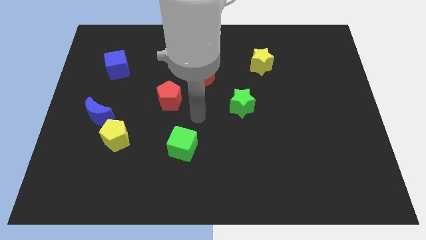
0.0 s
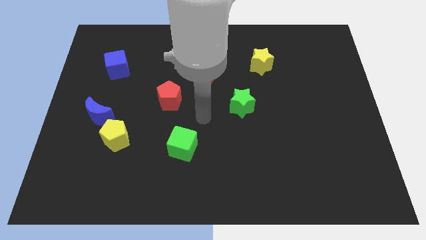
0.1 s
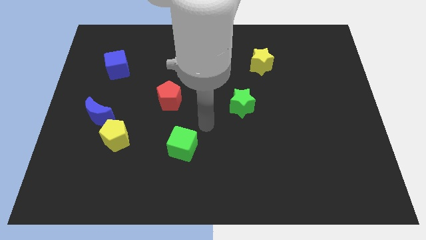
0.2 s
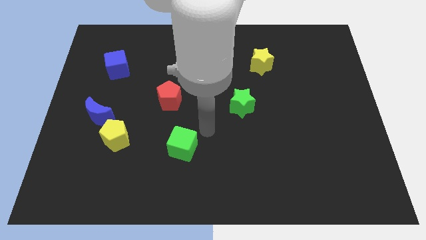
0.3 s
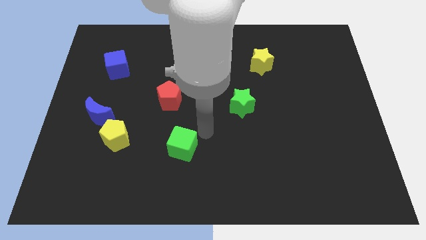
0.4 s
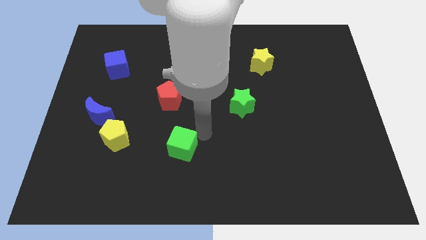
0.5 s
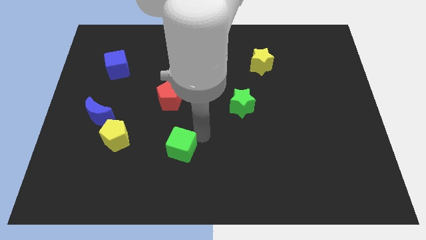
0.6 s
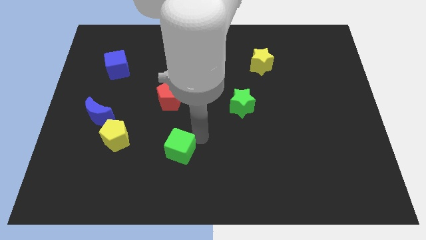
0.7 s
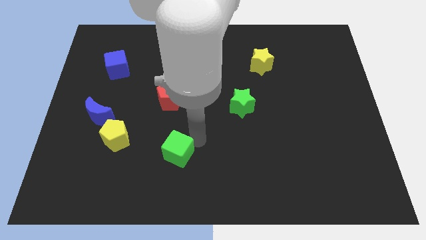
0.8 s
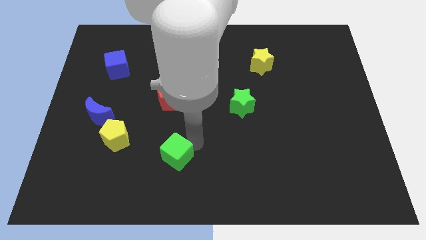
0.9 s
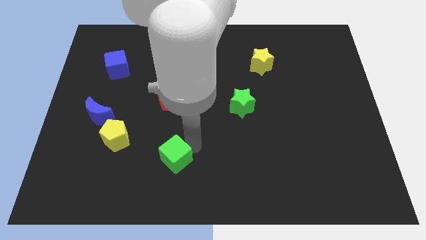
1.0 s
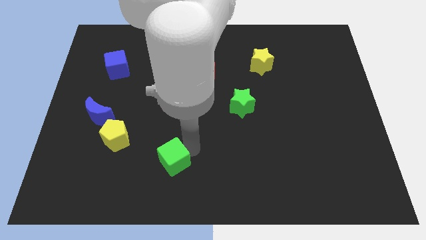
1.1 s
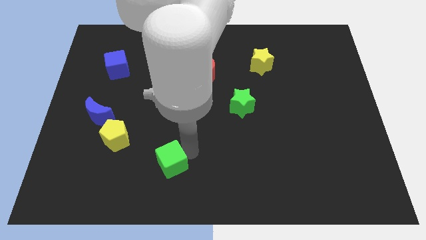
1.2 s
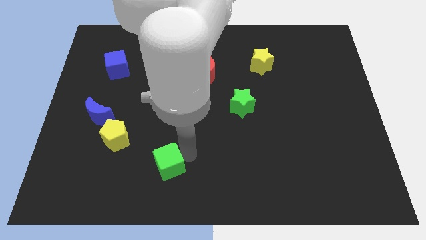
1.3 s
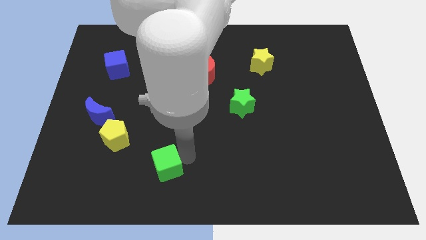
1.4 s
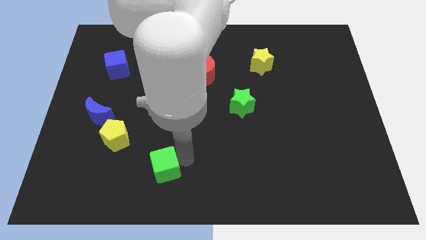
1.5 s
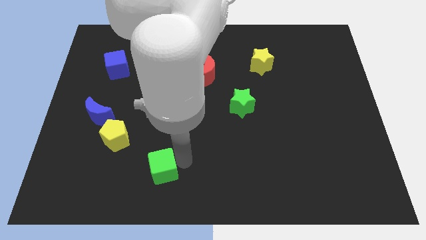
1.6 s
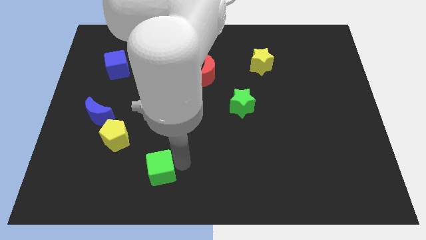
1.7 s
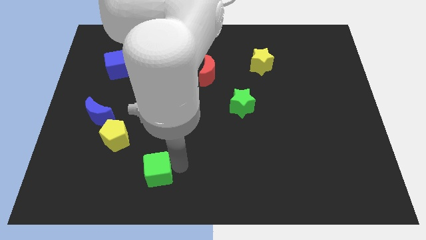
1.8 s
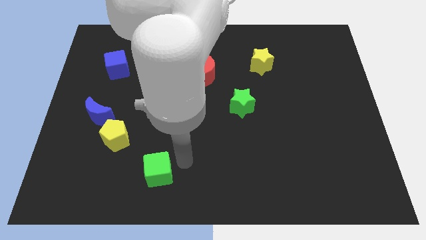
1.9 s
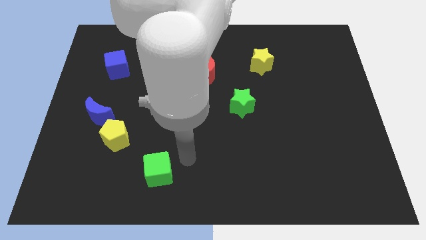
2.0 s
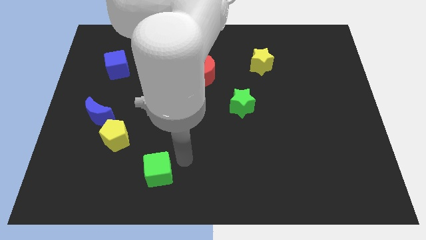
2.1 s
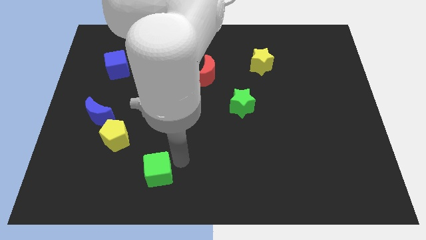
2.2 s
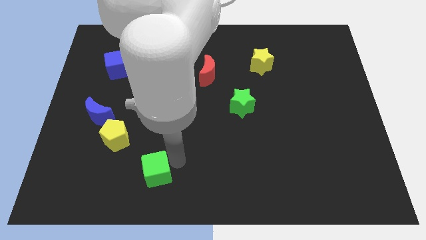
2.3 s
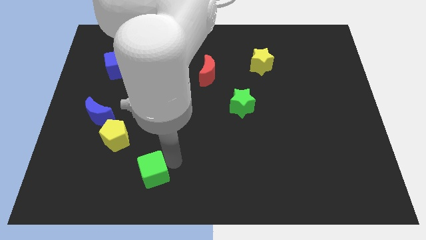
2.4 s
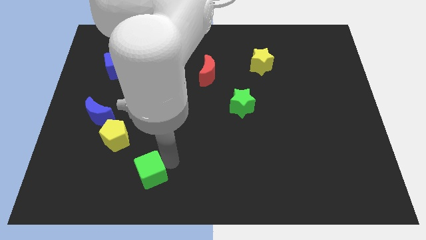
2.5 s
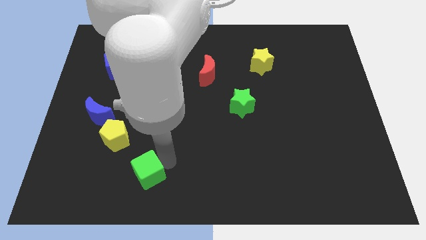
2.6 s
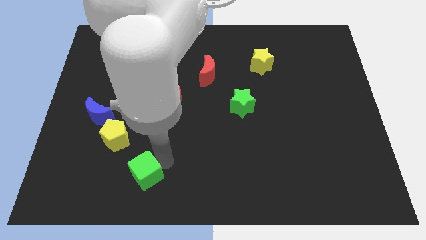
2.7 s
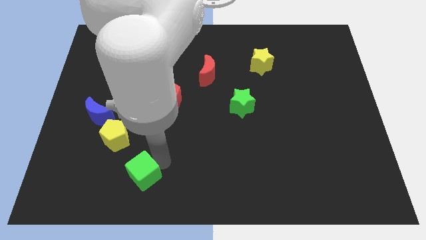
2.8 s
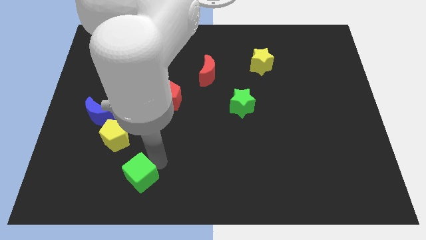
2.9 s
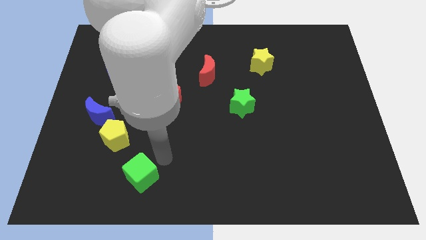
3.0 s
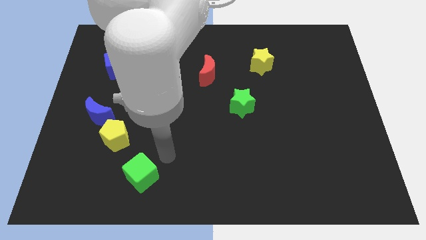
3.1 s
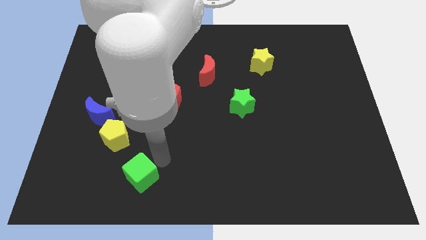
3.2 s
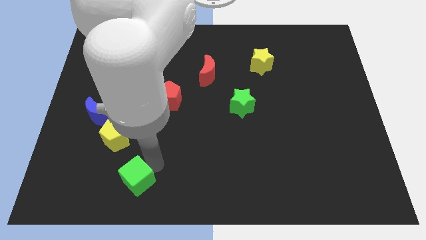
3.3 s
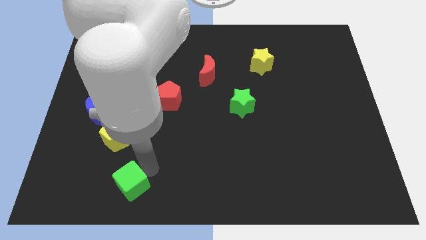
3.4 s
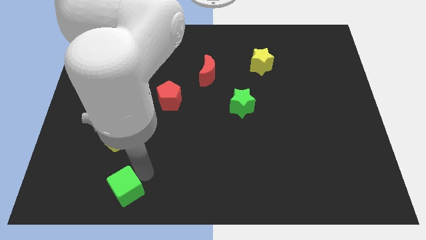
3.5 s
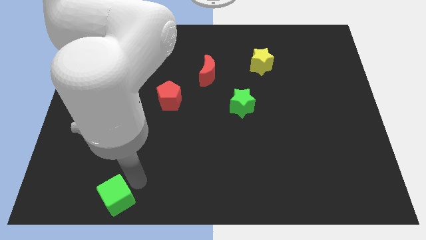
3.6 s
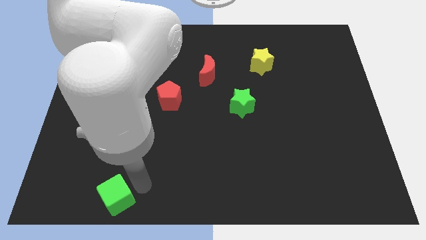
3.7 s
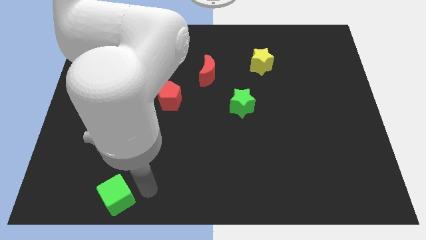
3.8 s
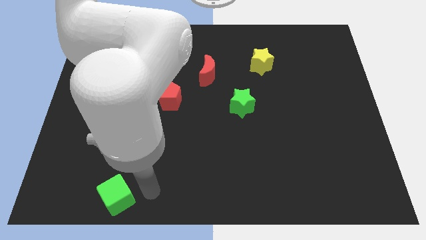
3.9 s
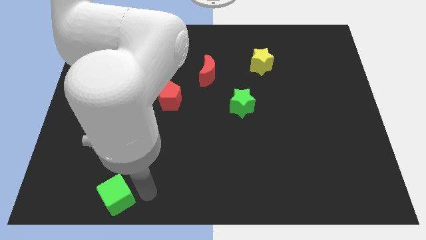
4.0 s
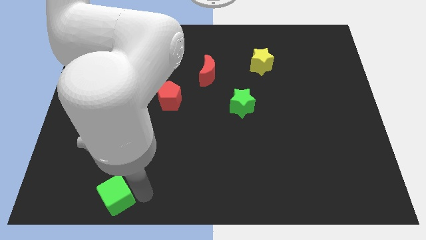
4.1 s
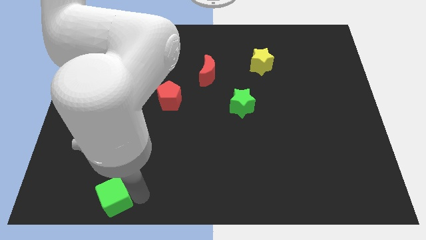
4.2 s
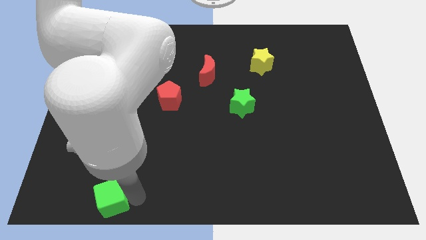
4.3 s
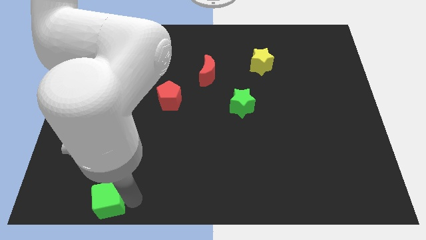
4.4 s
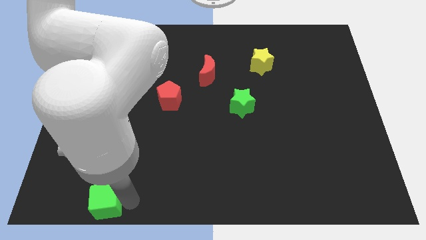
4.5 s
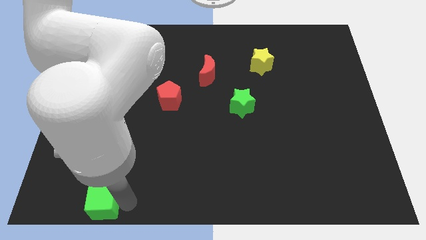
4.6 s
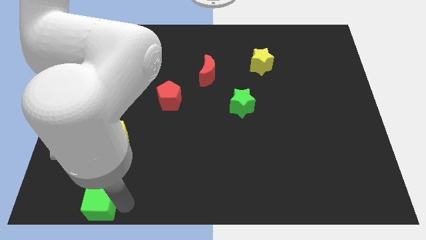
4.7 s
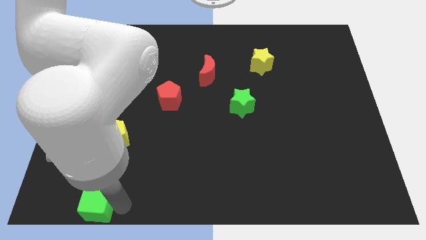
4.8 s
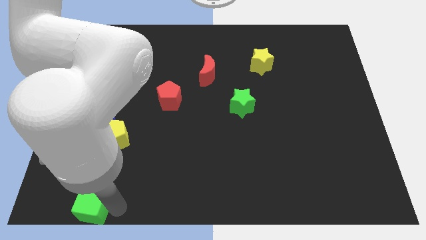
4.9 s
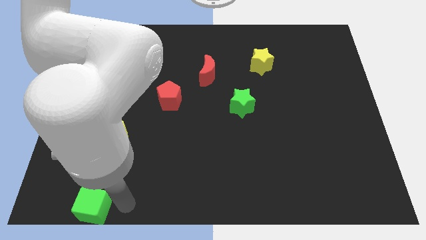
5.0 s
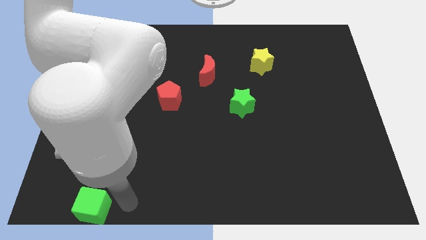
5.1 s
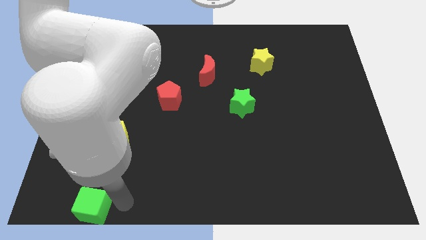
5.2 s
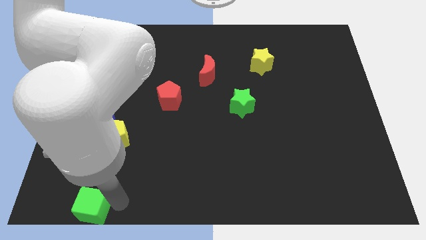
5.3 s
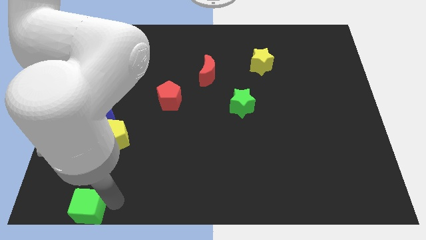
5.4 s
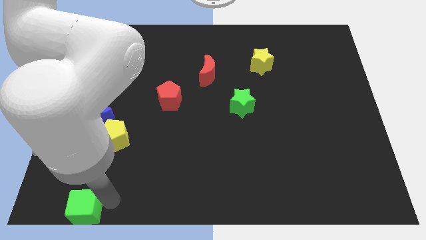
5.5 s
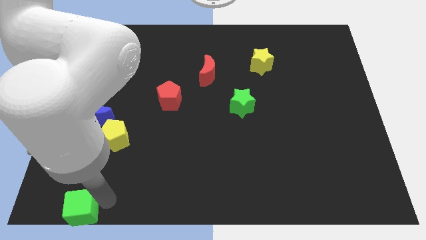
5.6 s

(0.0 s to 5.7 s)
push the green cube to the bottom left of the board
